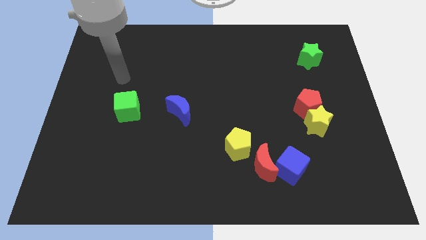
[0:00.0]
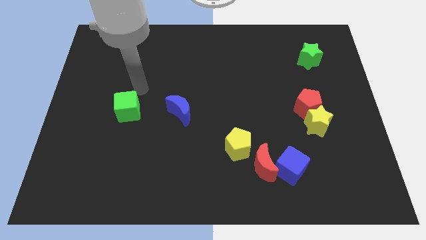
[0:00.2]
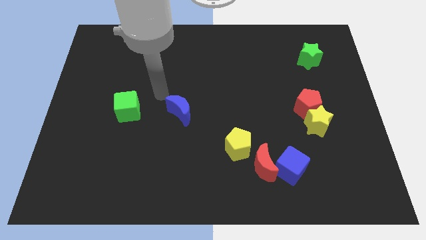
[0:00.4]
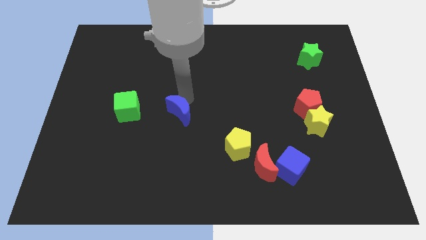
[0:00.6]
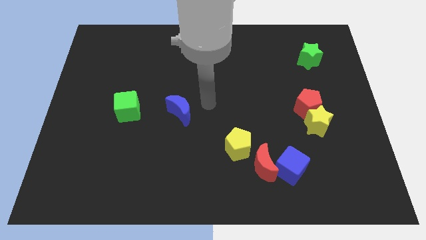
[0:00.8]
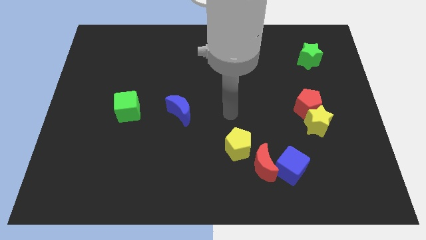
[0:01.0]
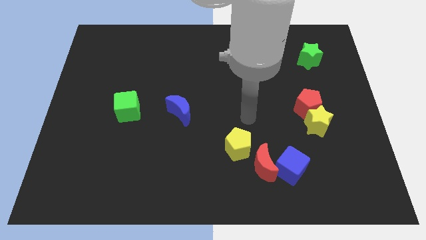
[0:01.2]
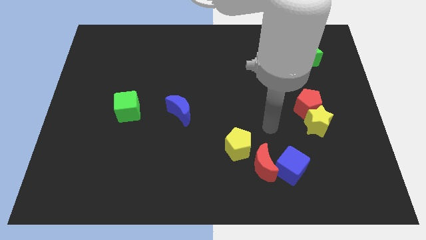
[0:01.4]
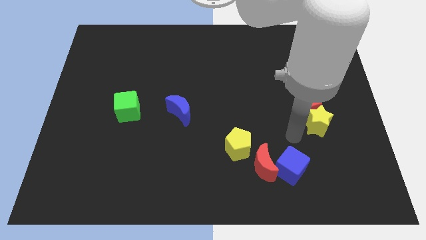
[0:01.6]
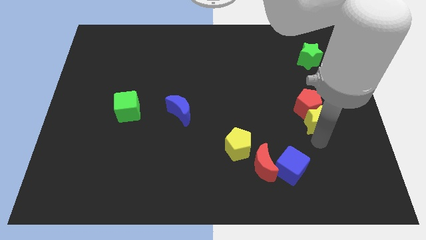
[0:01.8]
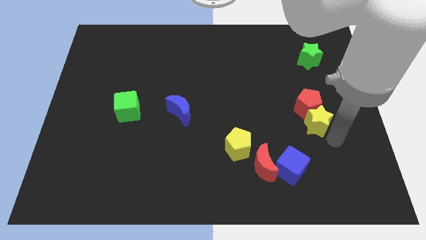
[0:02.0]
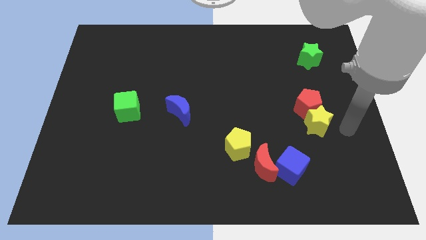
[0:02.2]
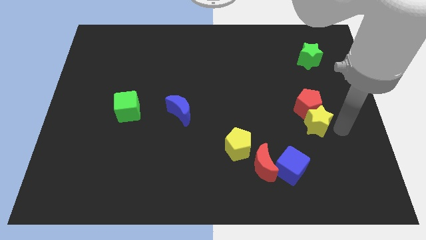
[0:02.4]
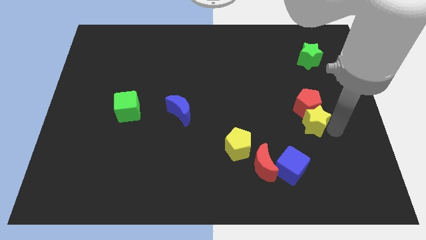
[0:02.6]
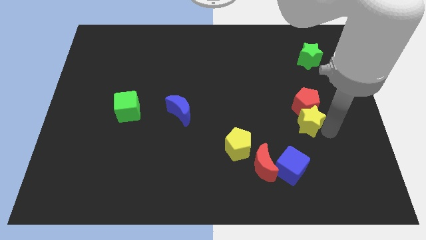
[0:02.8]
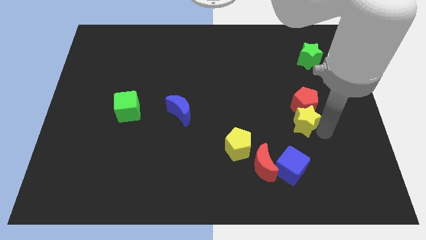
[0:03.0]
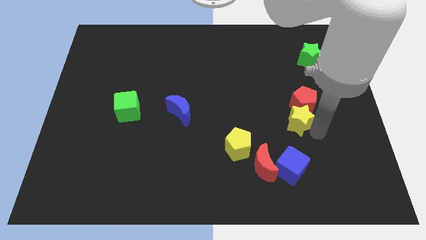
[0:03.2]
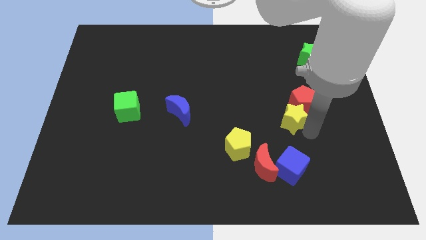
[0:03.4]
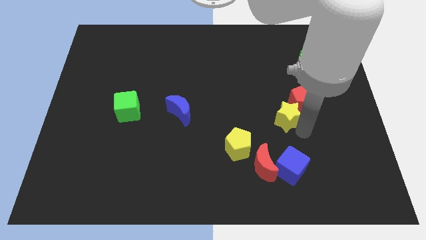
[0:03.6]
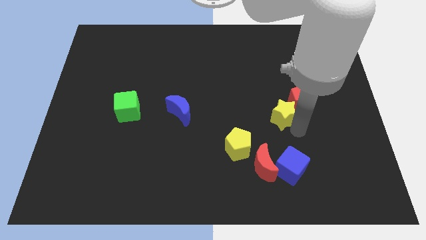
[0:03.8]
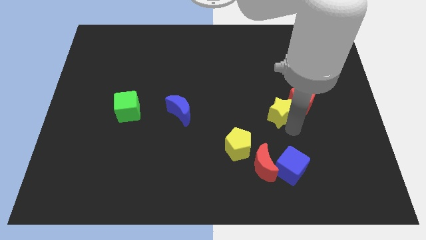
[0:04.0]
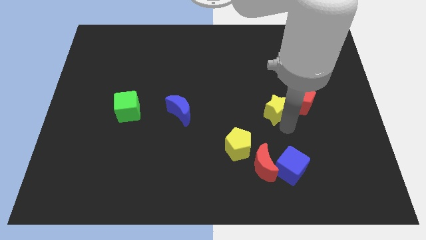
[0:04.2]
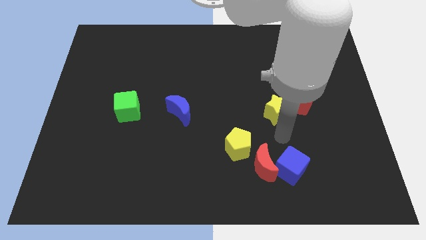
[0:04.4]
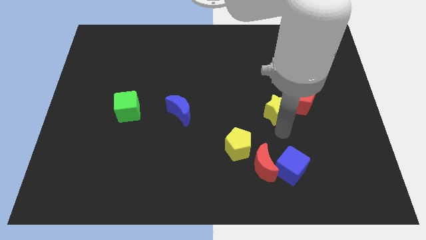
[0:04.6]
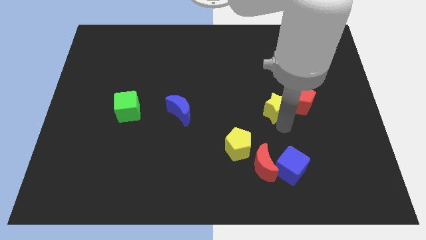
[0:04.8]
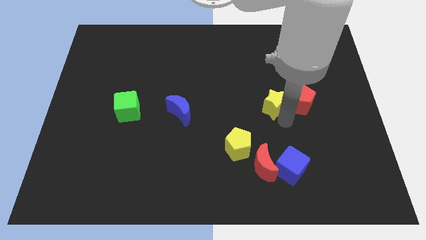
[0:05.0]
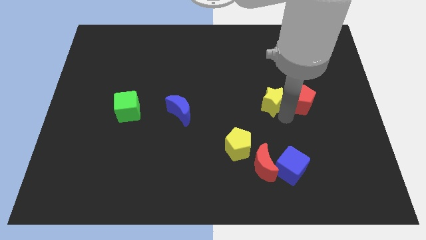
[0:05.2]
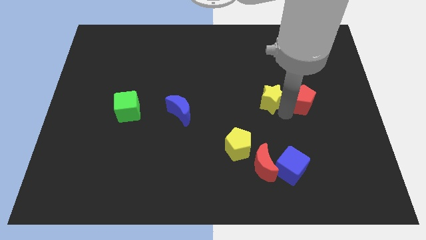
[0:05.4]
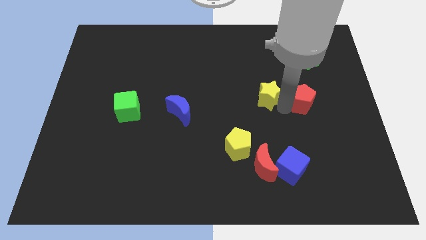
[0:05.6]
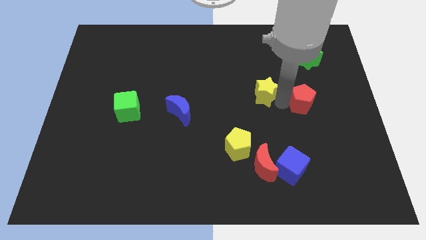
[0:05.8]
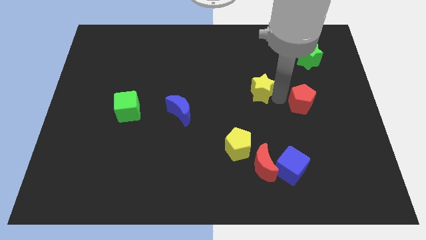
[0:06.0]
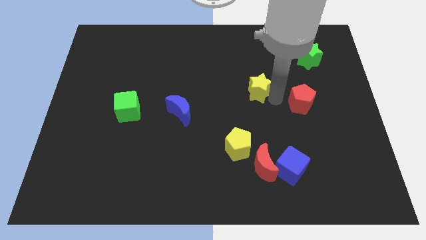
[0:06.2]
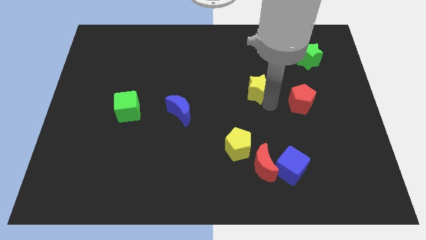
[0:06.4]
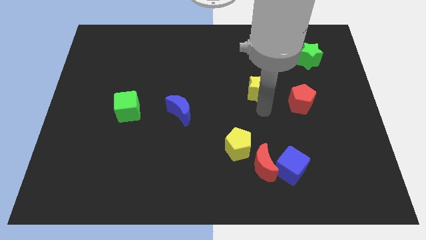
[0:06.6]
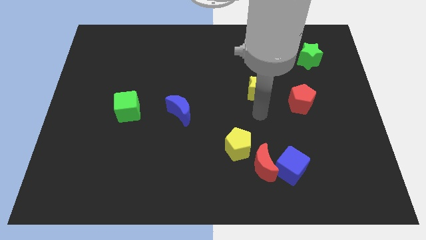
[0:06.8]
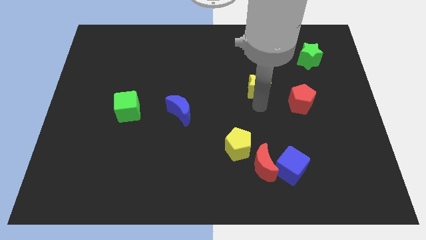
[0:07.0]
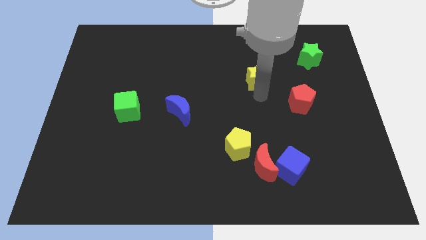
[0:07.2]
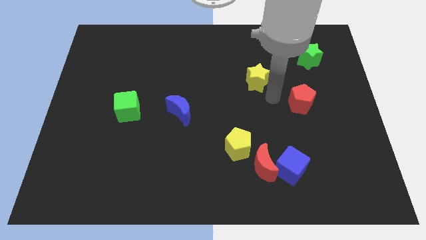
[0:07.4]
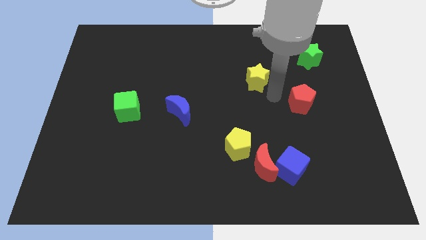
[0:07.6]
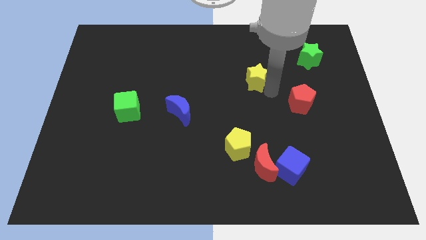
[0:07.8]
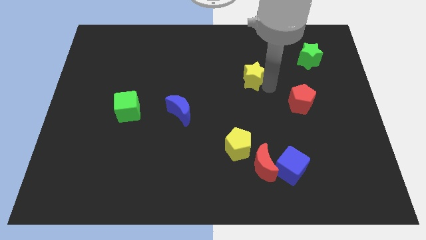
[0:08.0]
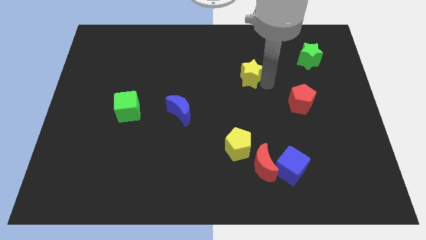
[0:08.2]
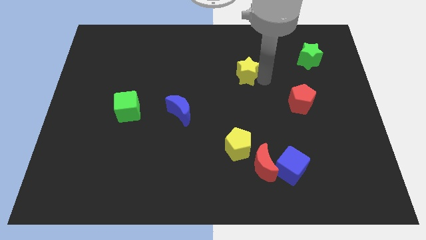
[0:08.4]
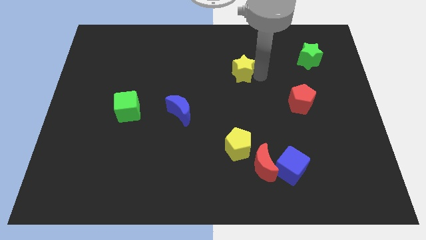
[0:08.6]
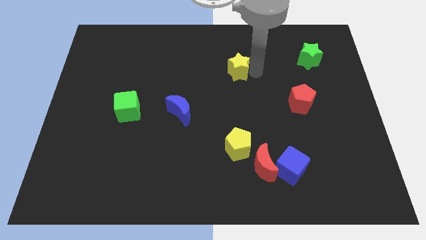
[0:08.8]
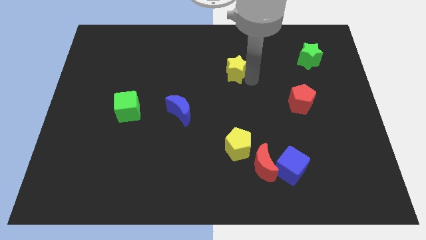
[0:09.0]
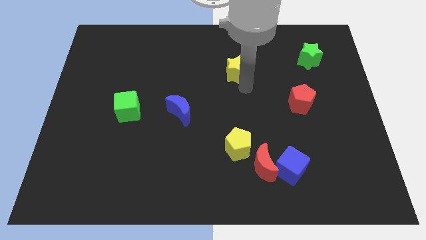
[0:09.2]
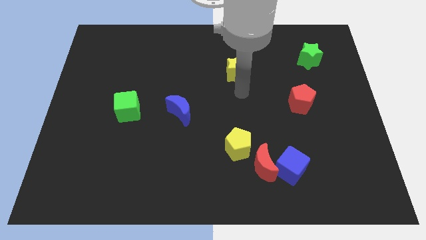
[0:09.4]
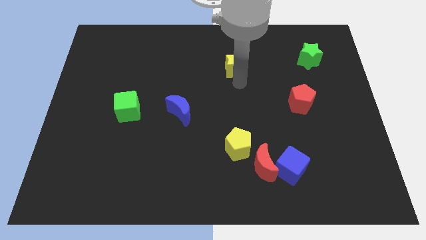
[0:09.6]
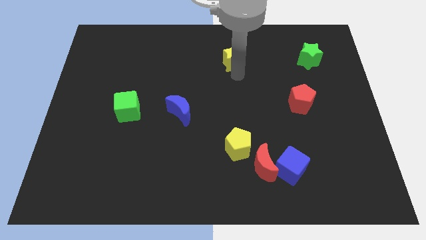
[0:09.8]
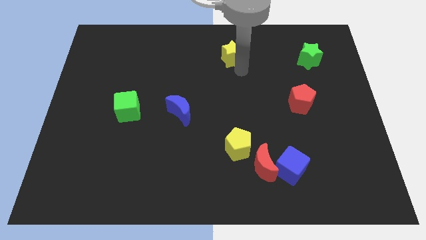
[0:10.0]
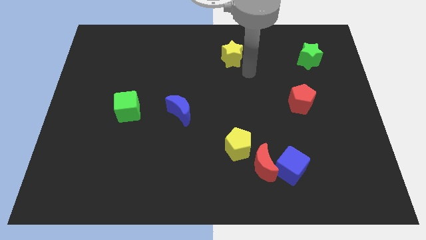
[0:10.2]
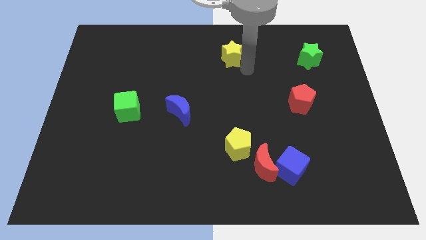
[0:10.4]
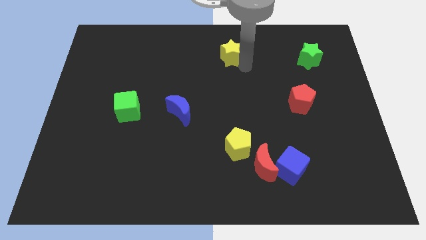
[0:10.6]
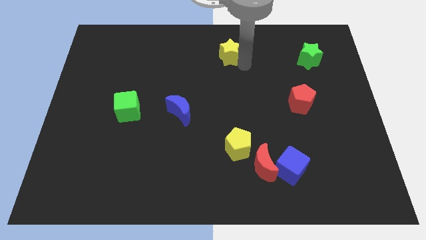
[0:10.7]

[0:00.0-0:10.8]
move the yellow star to the top

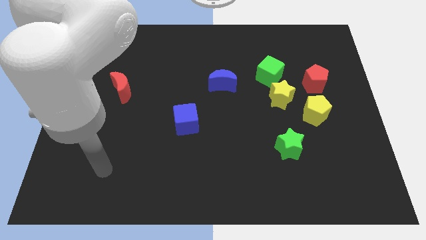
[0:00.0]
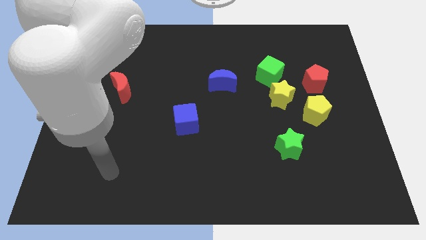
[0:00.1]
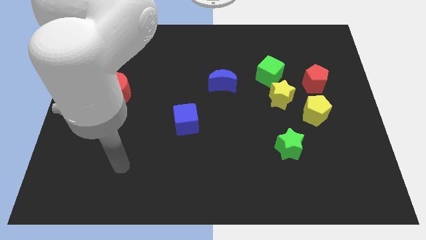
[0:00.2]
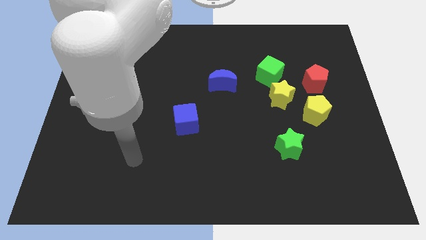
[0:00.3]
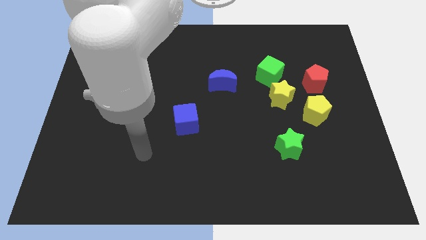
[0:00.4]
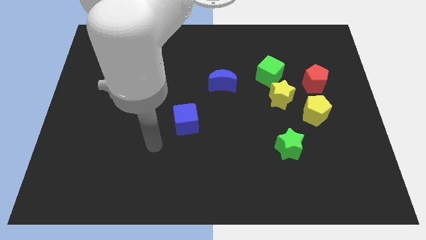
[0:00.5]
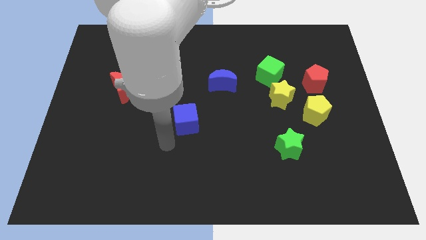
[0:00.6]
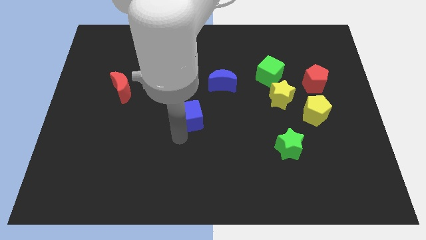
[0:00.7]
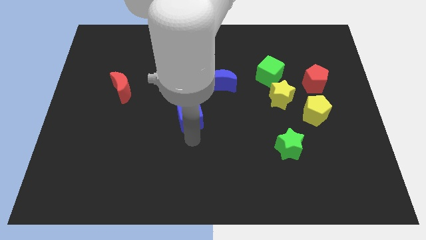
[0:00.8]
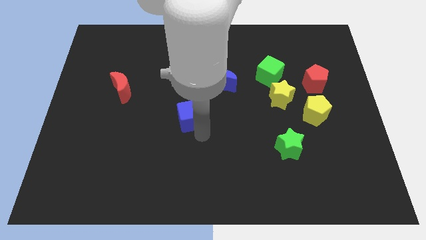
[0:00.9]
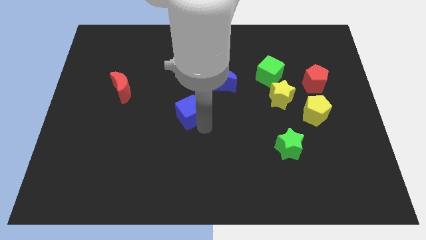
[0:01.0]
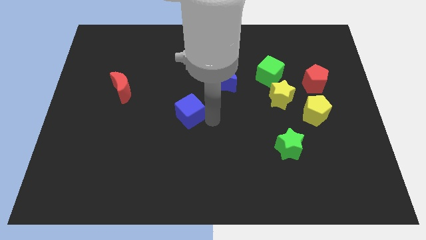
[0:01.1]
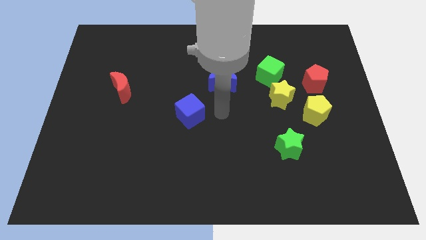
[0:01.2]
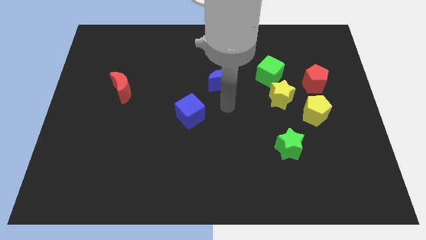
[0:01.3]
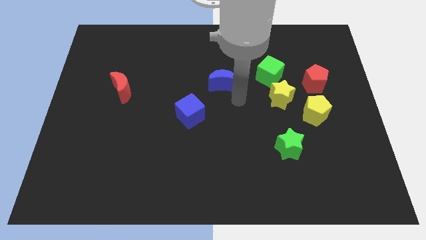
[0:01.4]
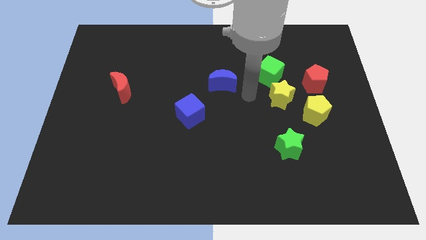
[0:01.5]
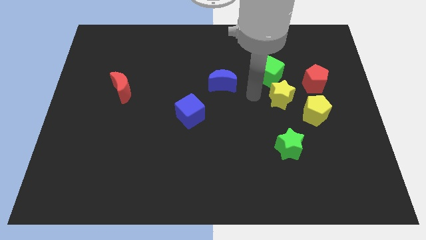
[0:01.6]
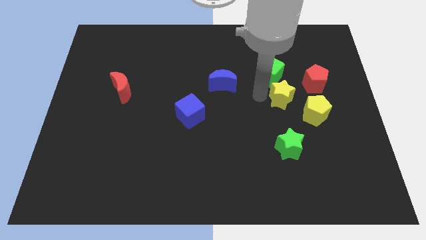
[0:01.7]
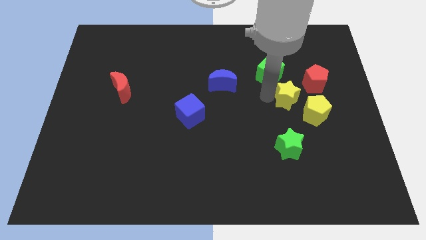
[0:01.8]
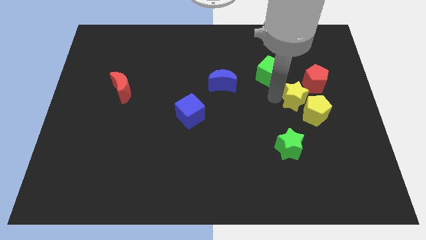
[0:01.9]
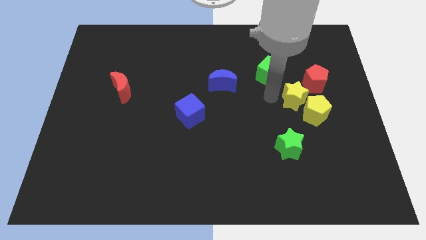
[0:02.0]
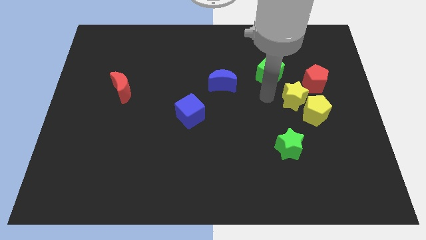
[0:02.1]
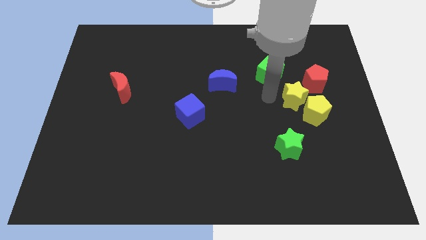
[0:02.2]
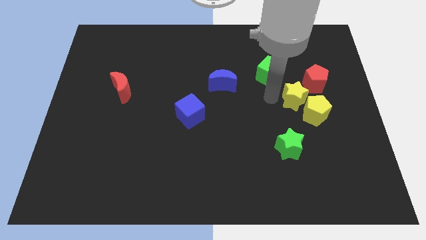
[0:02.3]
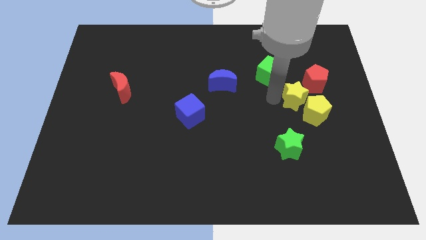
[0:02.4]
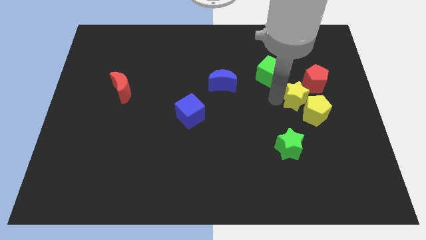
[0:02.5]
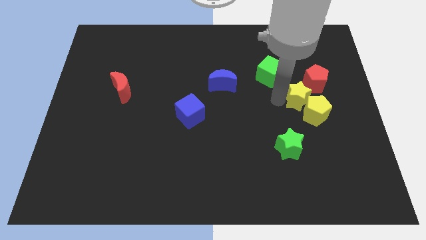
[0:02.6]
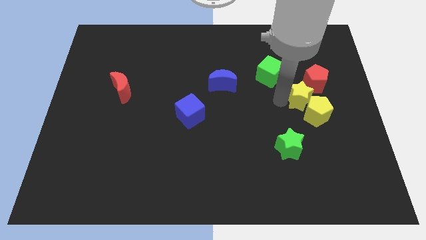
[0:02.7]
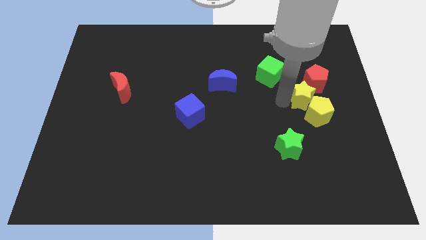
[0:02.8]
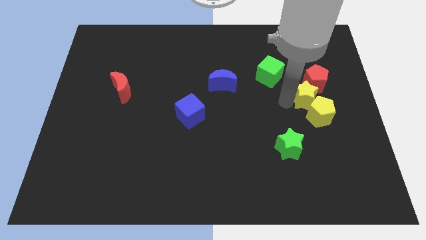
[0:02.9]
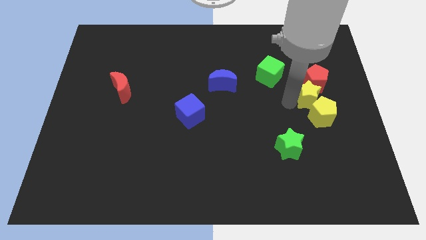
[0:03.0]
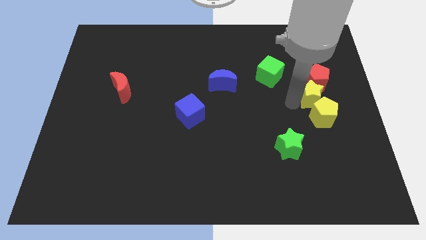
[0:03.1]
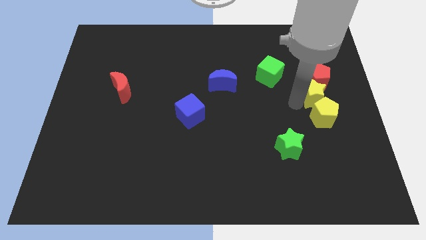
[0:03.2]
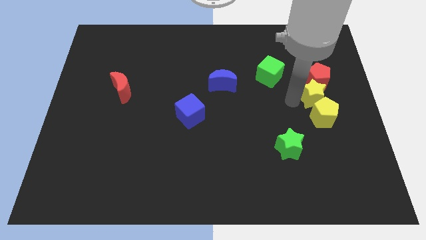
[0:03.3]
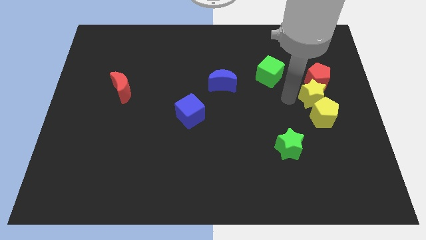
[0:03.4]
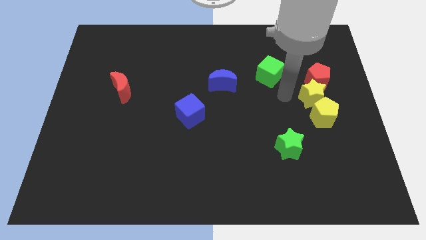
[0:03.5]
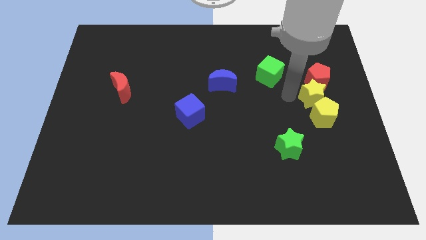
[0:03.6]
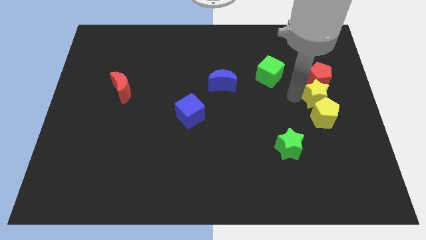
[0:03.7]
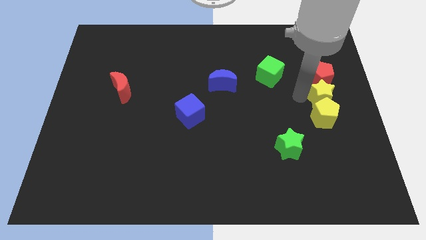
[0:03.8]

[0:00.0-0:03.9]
put the yellow star to the center right
